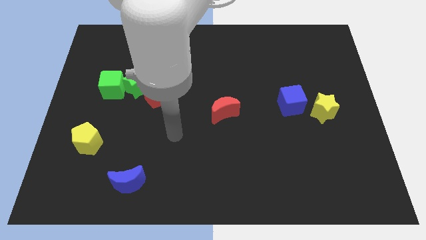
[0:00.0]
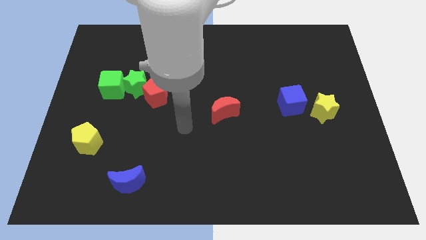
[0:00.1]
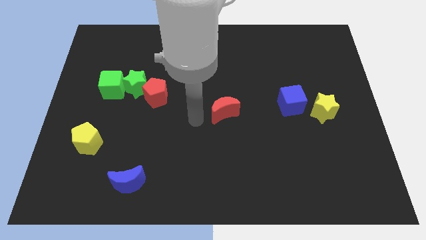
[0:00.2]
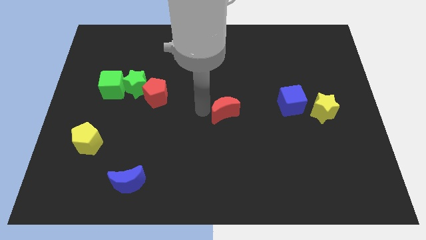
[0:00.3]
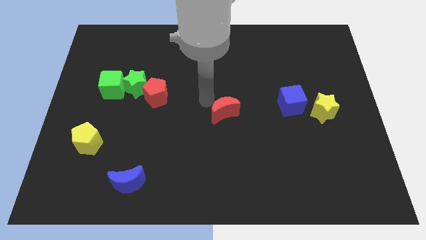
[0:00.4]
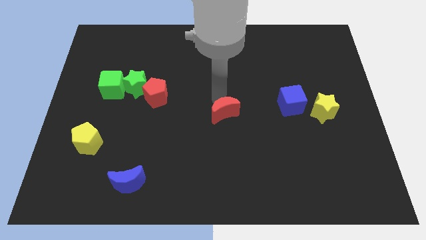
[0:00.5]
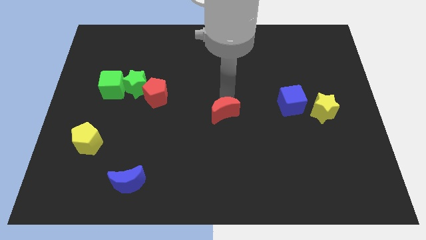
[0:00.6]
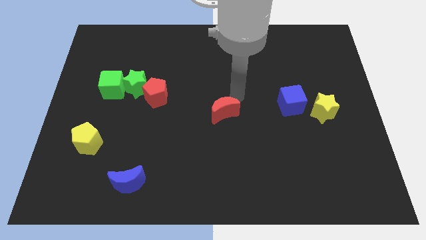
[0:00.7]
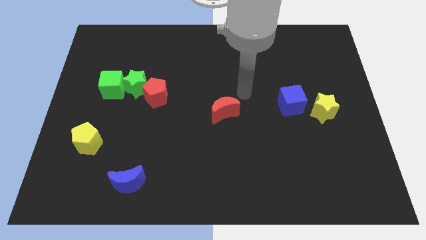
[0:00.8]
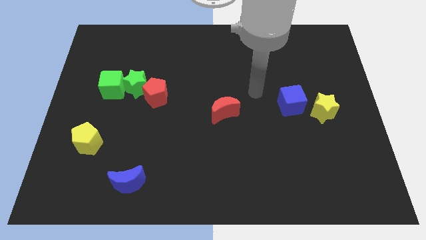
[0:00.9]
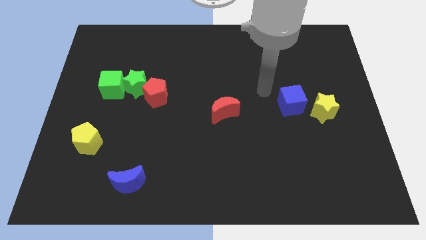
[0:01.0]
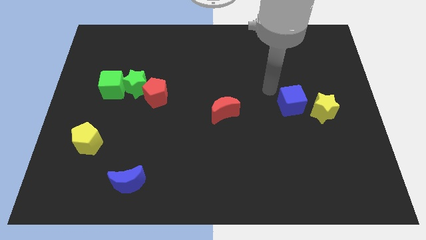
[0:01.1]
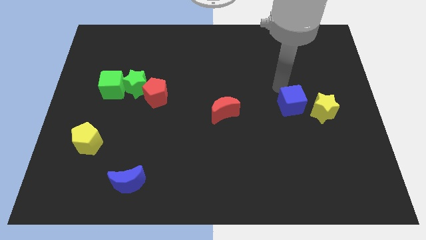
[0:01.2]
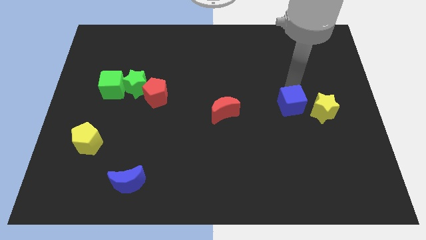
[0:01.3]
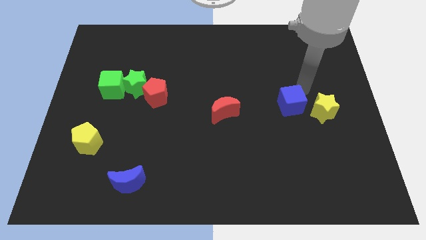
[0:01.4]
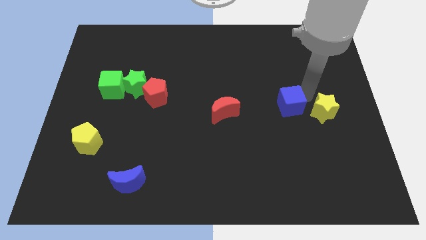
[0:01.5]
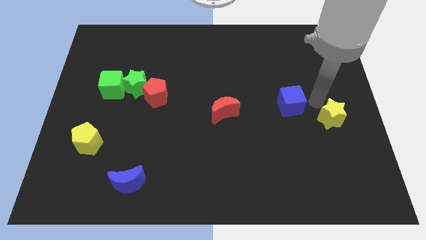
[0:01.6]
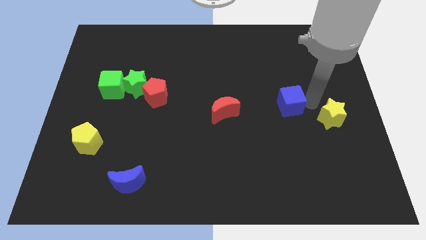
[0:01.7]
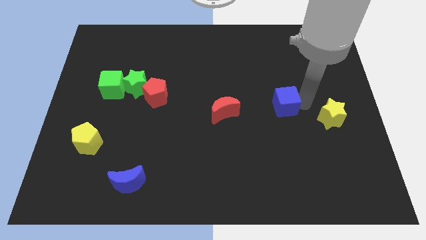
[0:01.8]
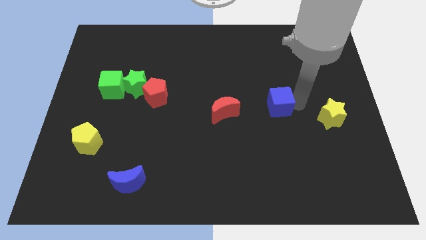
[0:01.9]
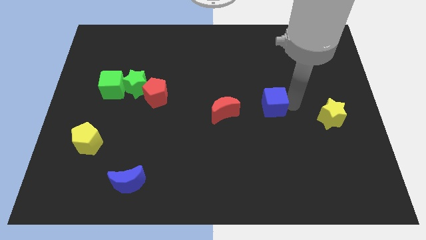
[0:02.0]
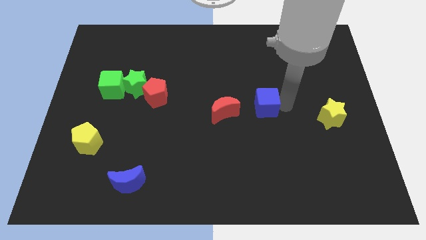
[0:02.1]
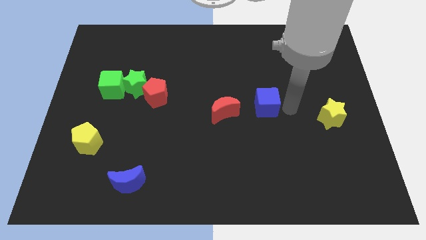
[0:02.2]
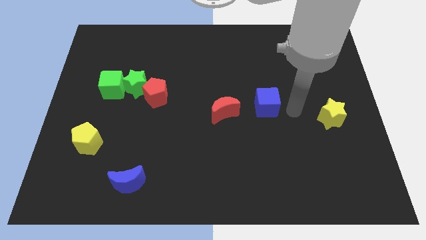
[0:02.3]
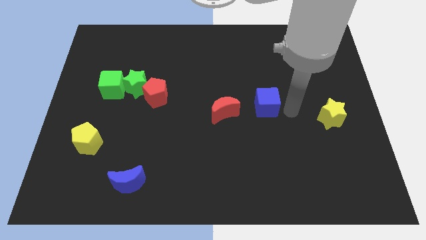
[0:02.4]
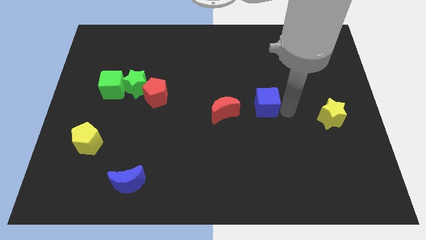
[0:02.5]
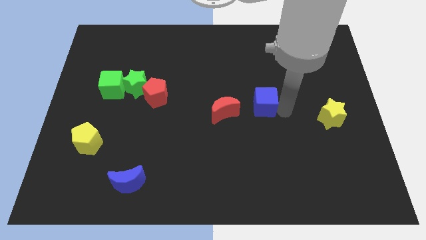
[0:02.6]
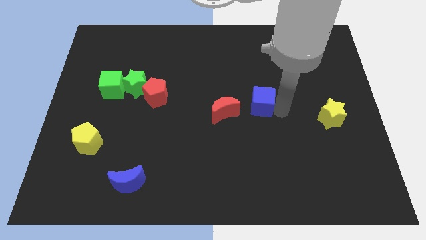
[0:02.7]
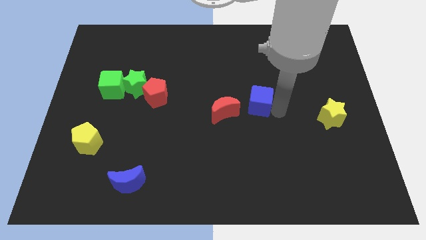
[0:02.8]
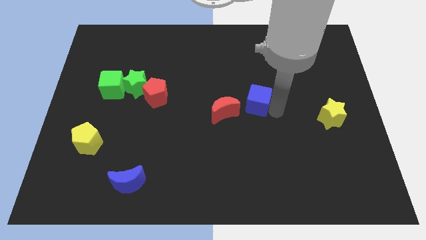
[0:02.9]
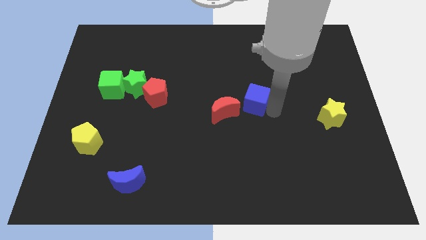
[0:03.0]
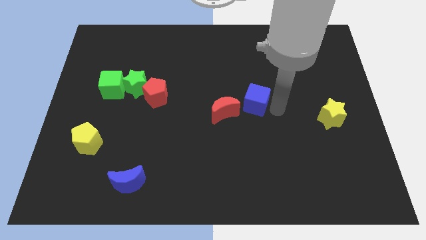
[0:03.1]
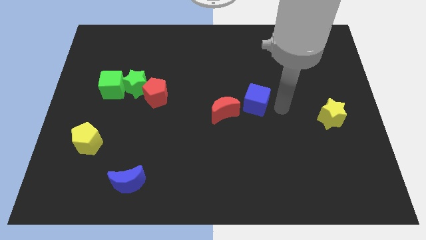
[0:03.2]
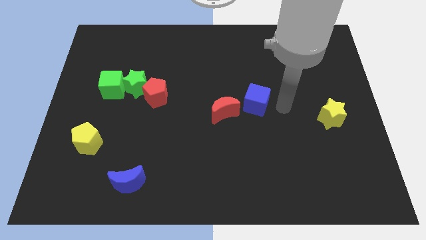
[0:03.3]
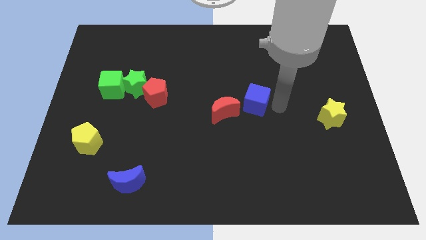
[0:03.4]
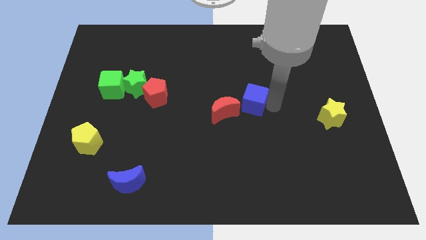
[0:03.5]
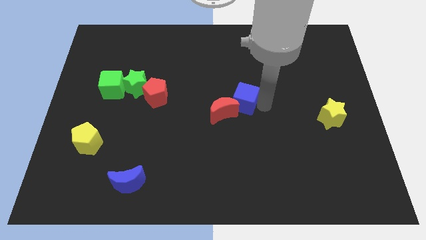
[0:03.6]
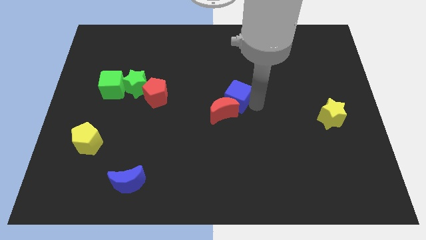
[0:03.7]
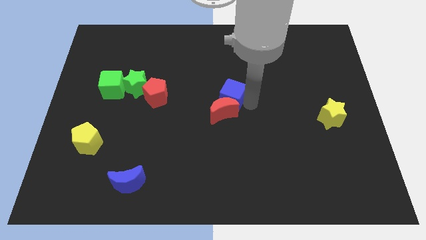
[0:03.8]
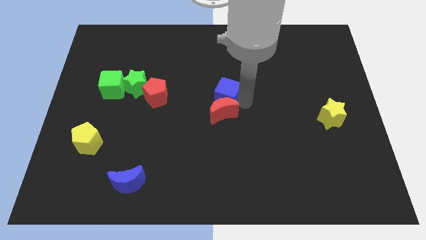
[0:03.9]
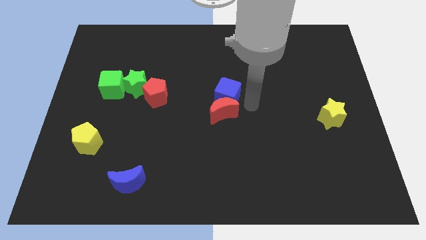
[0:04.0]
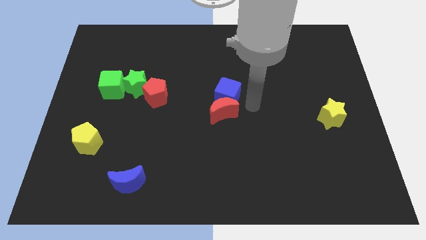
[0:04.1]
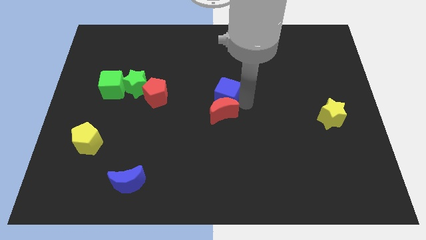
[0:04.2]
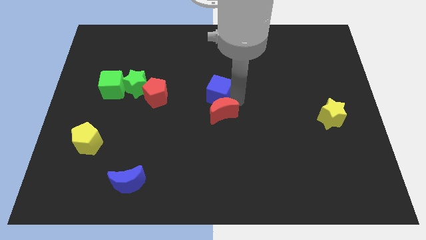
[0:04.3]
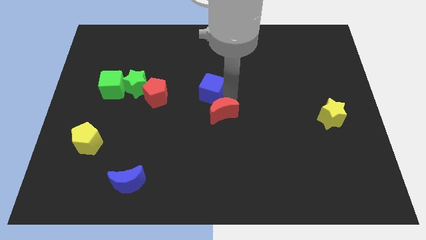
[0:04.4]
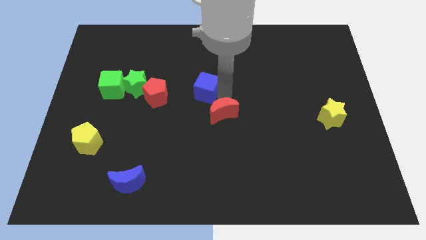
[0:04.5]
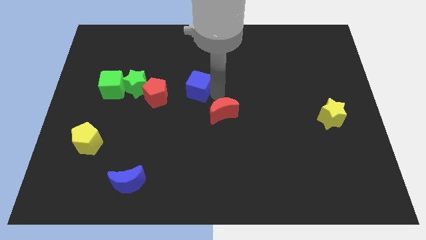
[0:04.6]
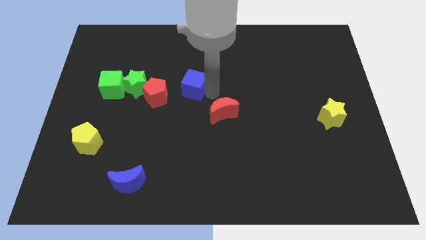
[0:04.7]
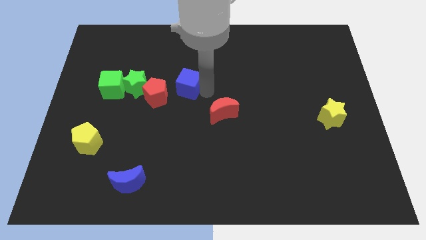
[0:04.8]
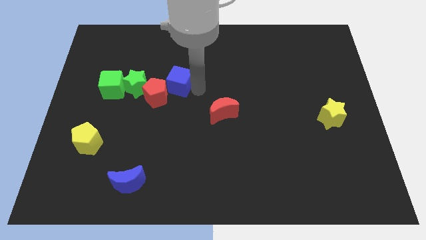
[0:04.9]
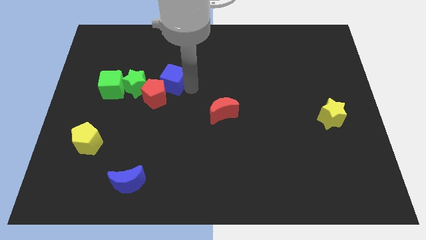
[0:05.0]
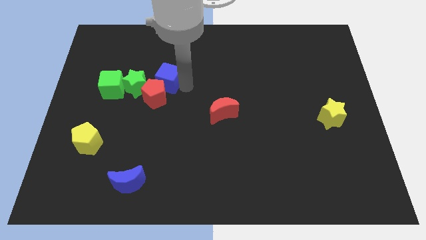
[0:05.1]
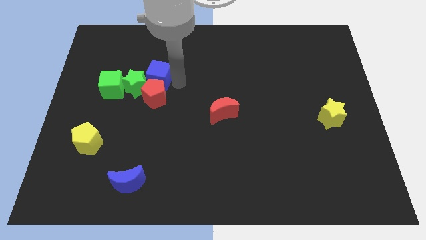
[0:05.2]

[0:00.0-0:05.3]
slide the blue cube next to the green star

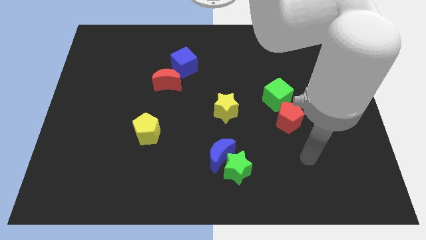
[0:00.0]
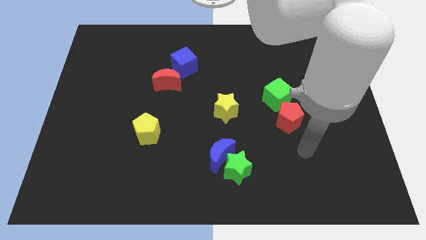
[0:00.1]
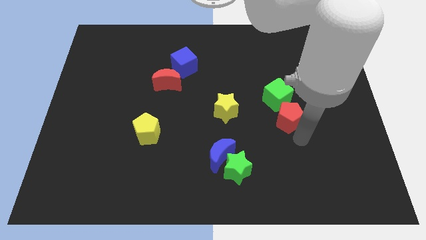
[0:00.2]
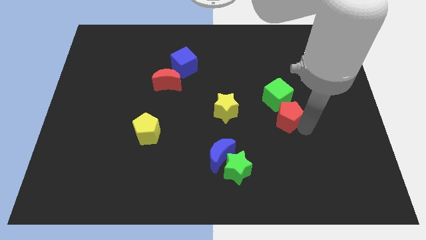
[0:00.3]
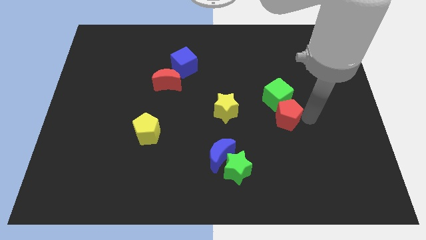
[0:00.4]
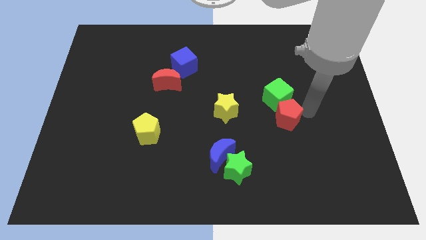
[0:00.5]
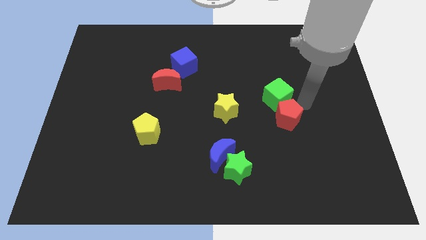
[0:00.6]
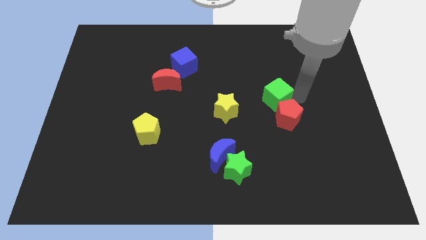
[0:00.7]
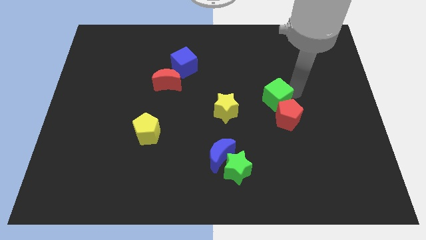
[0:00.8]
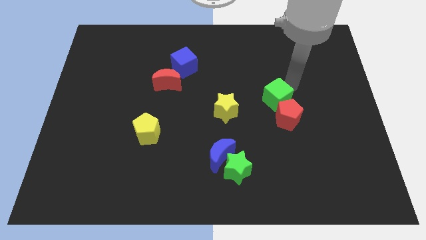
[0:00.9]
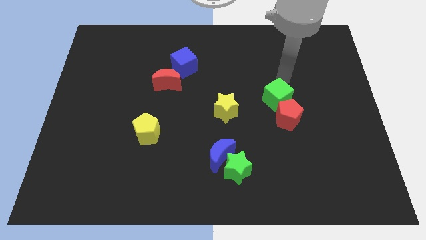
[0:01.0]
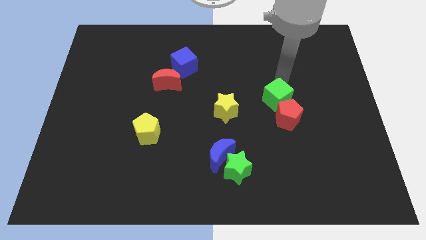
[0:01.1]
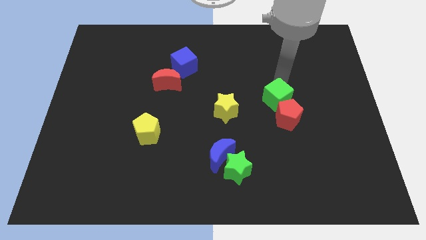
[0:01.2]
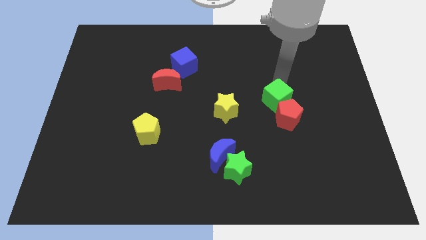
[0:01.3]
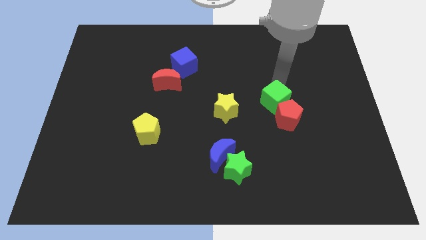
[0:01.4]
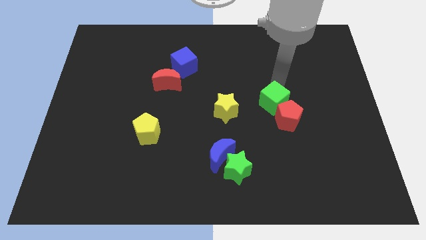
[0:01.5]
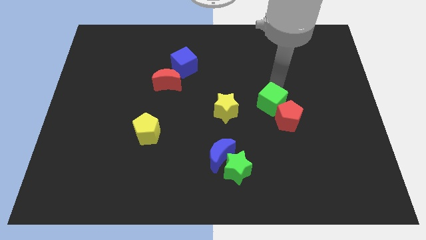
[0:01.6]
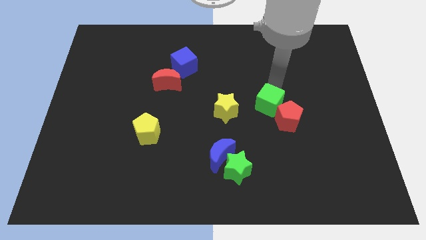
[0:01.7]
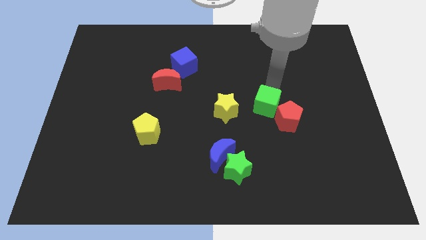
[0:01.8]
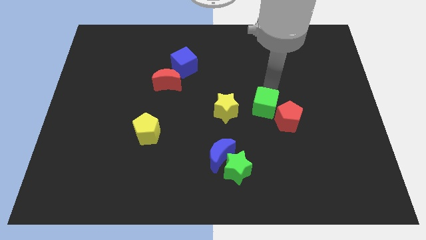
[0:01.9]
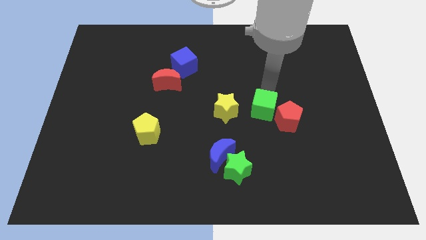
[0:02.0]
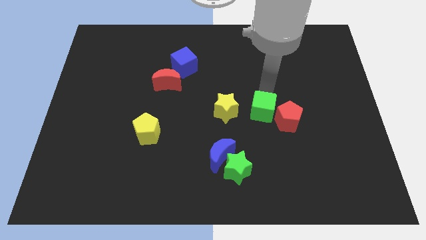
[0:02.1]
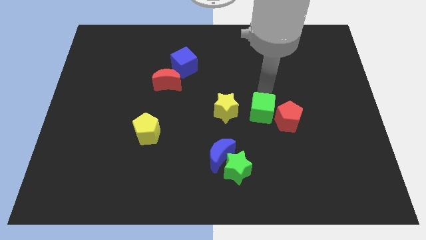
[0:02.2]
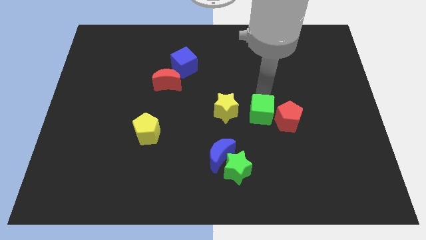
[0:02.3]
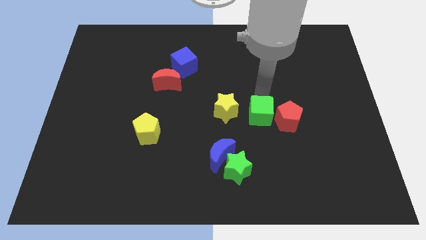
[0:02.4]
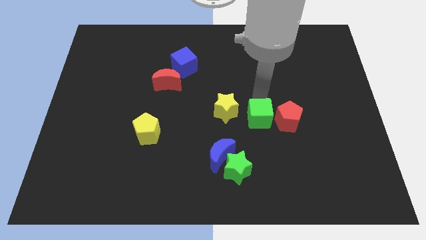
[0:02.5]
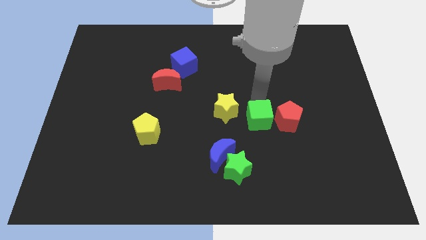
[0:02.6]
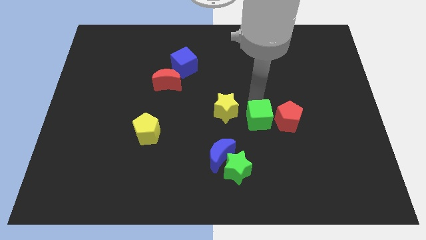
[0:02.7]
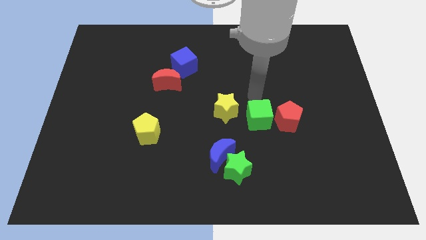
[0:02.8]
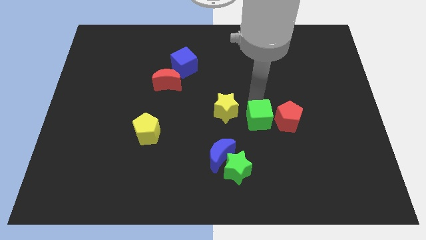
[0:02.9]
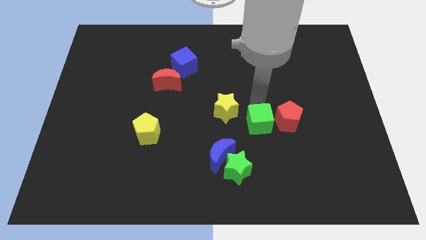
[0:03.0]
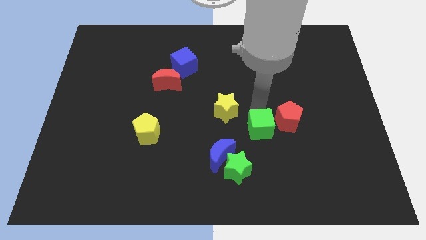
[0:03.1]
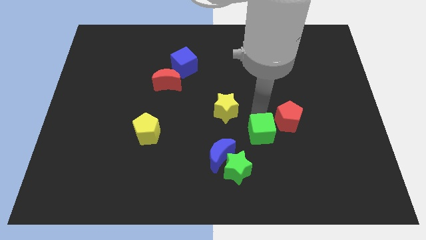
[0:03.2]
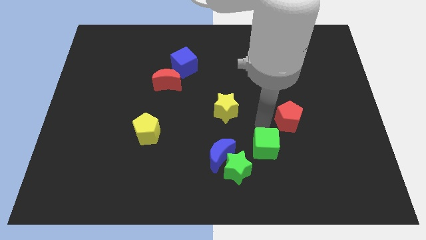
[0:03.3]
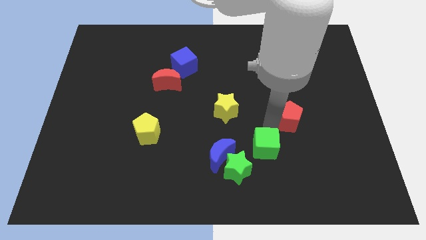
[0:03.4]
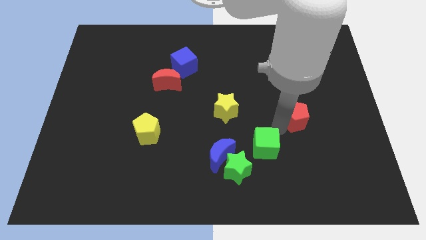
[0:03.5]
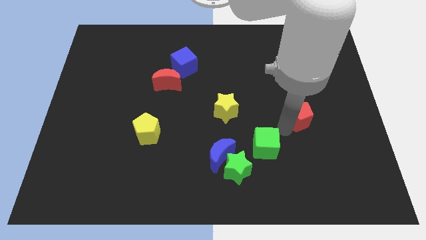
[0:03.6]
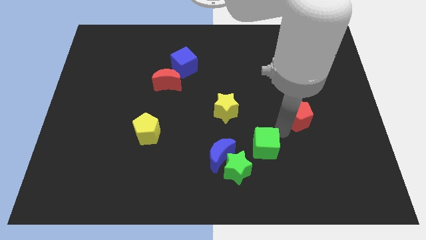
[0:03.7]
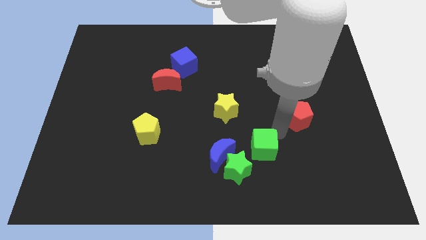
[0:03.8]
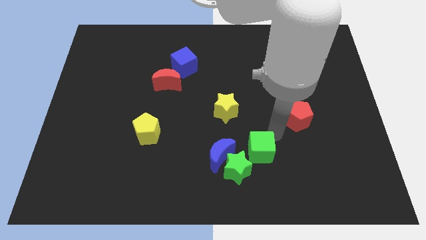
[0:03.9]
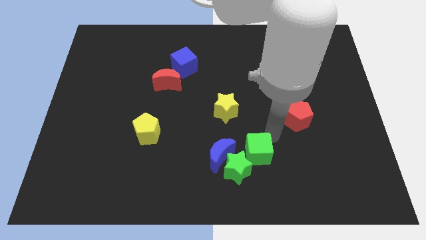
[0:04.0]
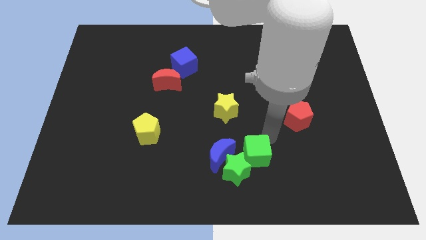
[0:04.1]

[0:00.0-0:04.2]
put the green cube close to the green star
